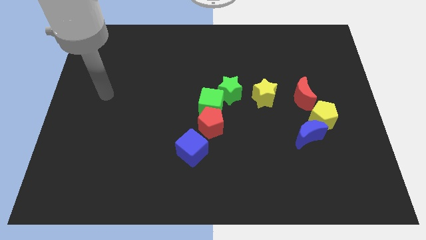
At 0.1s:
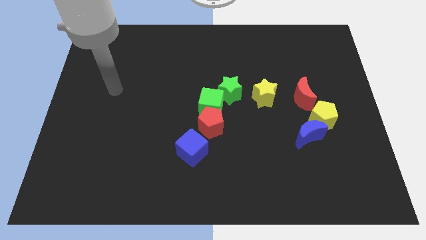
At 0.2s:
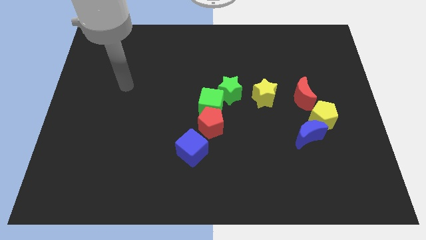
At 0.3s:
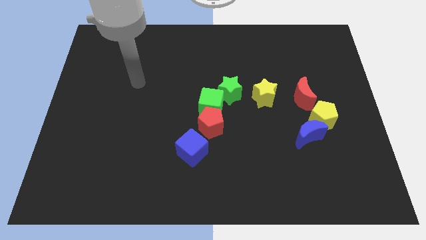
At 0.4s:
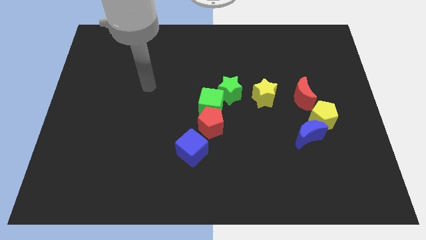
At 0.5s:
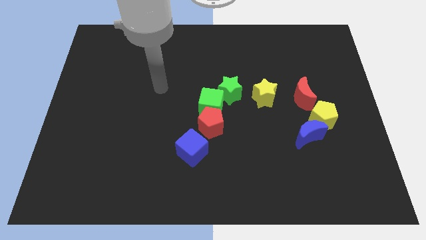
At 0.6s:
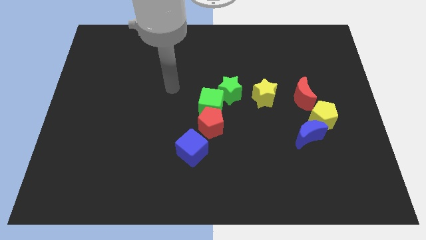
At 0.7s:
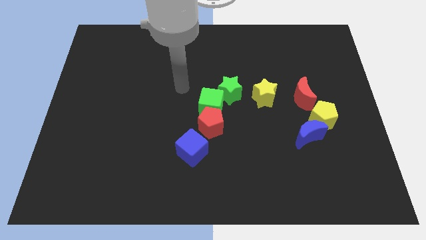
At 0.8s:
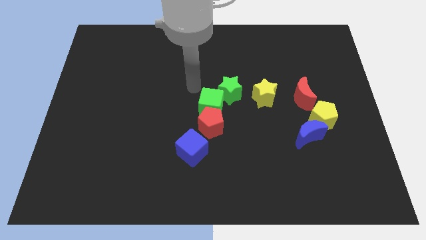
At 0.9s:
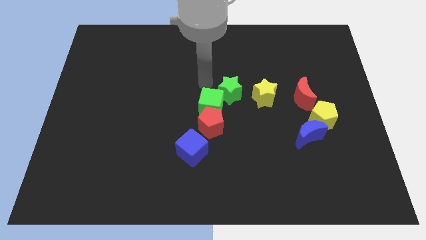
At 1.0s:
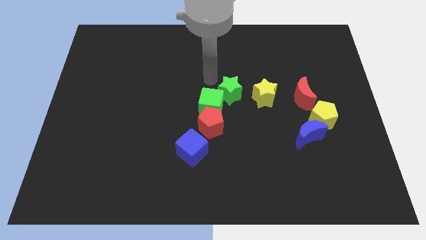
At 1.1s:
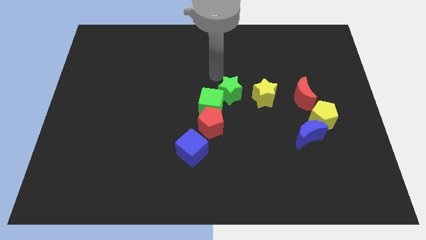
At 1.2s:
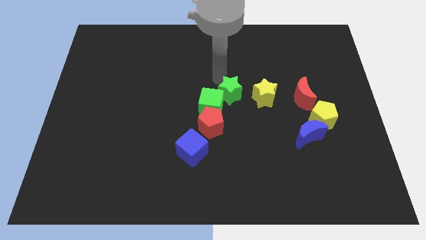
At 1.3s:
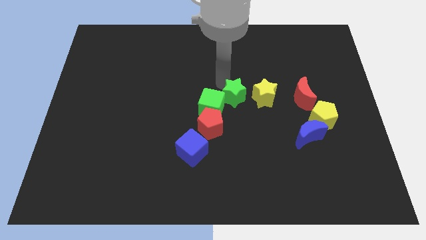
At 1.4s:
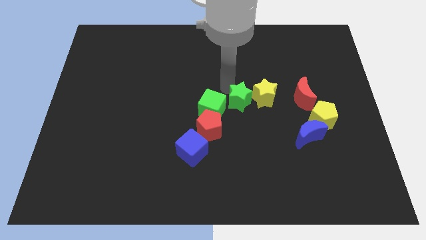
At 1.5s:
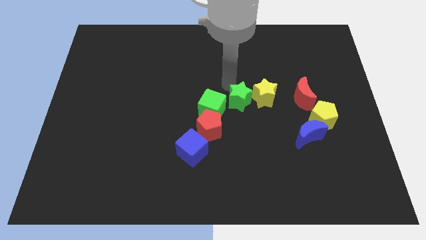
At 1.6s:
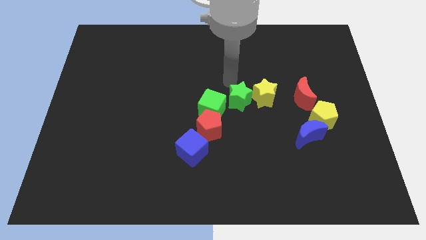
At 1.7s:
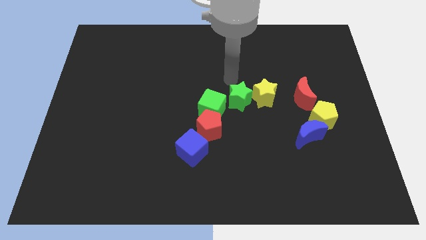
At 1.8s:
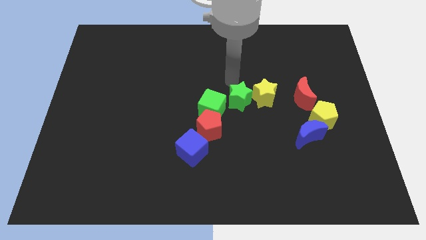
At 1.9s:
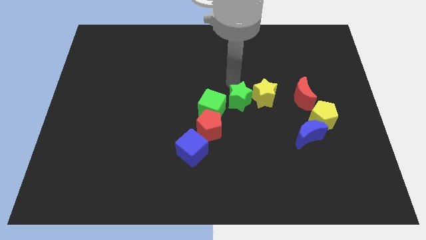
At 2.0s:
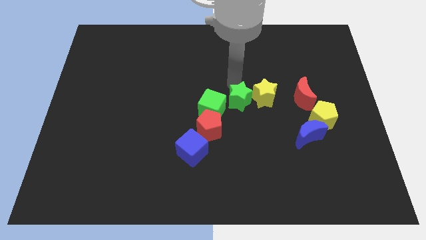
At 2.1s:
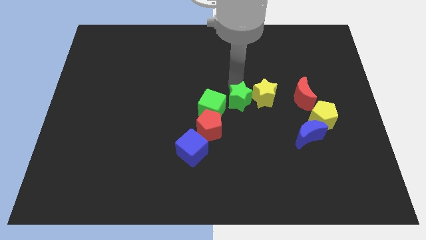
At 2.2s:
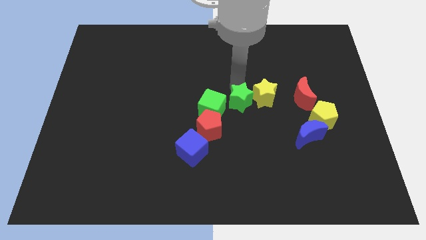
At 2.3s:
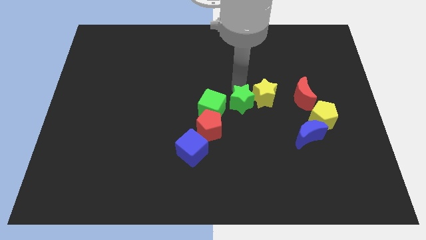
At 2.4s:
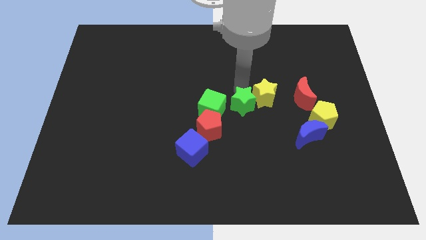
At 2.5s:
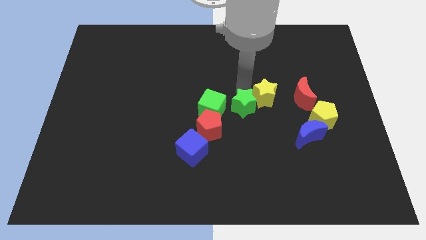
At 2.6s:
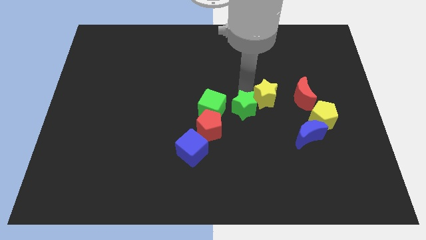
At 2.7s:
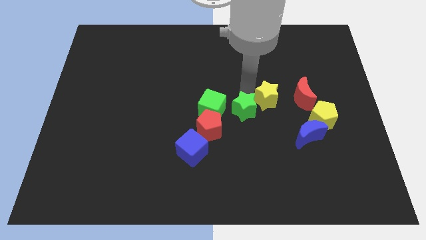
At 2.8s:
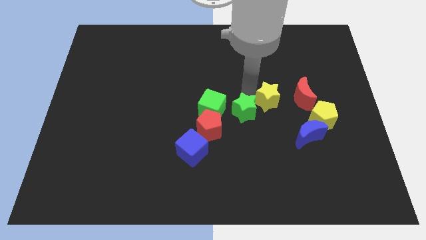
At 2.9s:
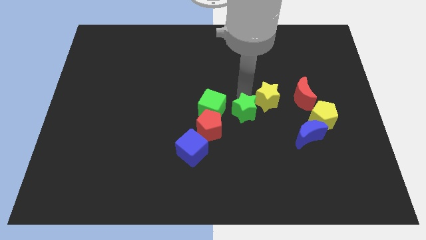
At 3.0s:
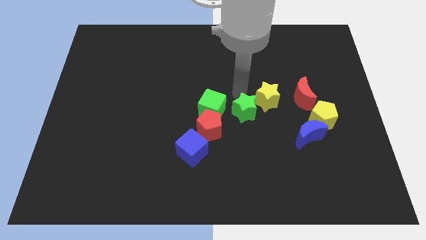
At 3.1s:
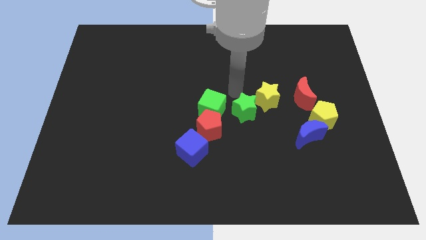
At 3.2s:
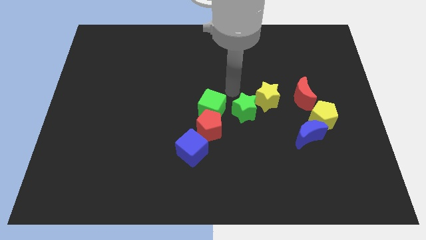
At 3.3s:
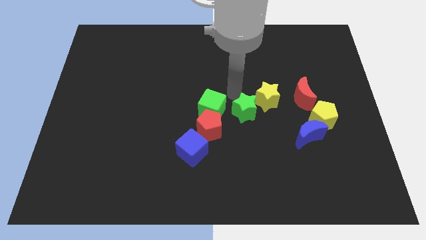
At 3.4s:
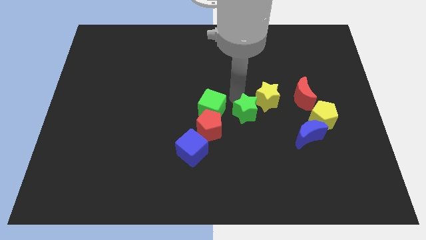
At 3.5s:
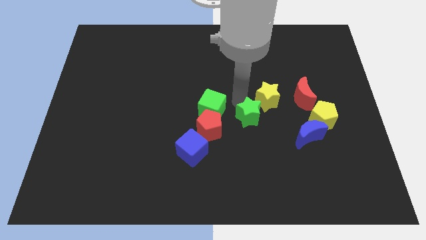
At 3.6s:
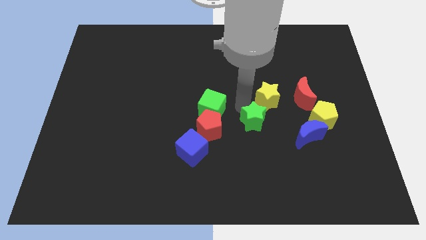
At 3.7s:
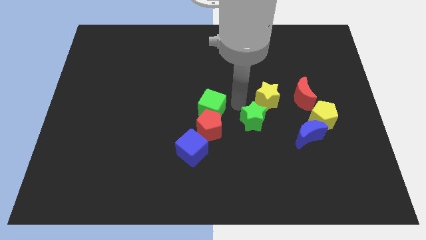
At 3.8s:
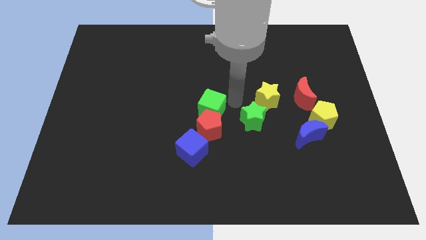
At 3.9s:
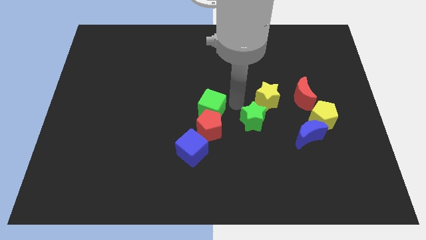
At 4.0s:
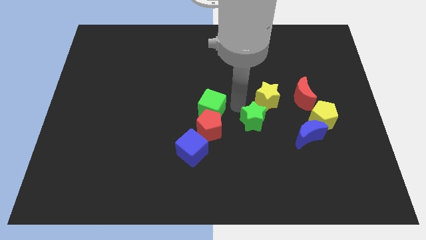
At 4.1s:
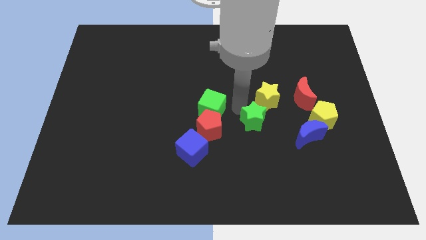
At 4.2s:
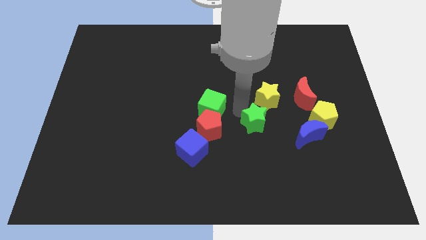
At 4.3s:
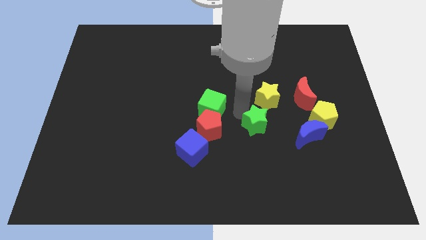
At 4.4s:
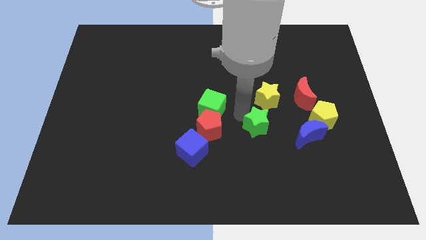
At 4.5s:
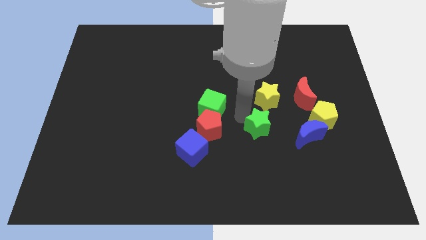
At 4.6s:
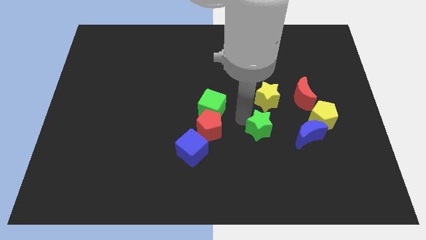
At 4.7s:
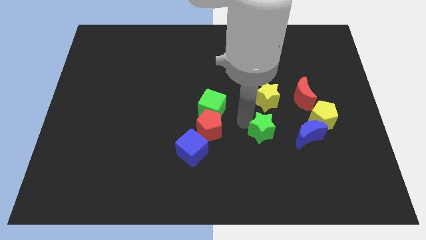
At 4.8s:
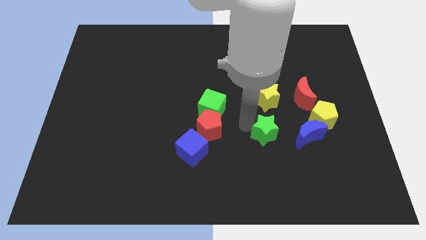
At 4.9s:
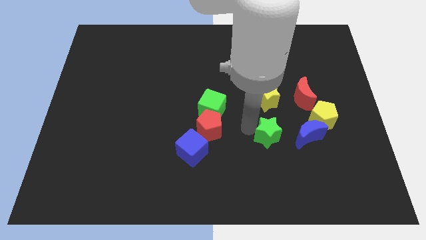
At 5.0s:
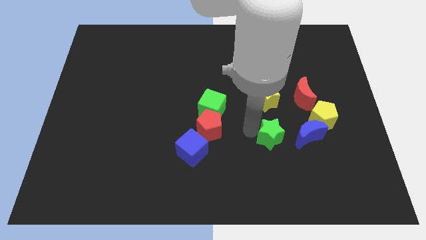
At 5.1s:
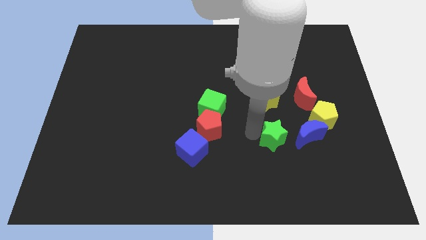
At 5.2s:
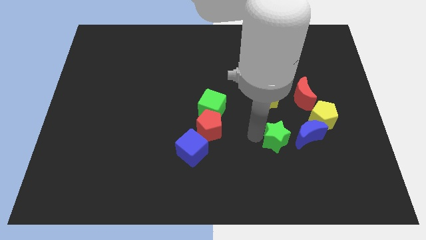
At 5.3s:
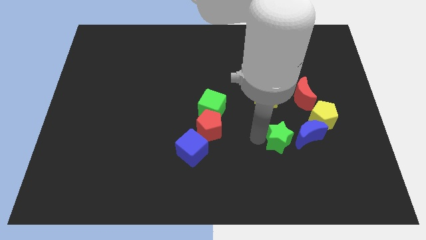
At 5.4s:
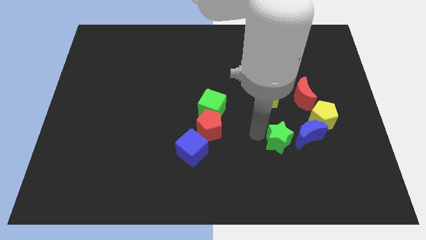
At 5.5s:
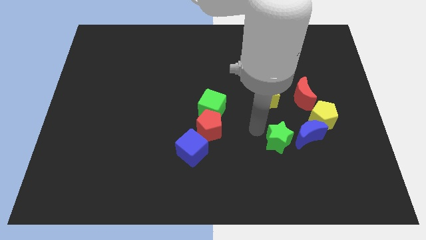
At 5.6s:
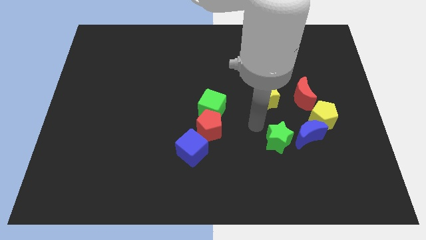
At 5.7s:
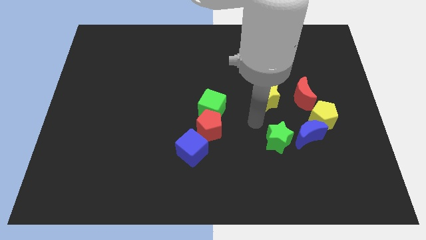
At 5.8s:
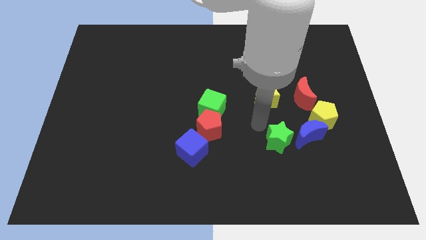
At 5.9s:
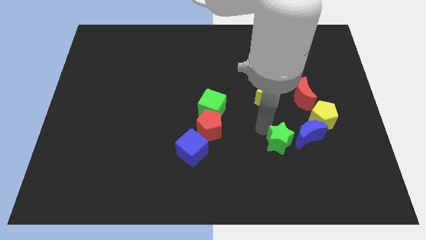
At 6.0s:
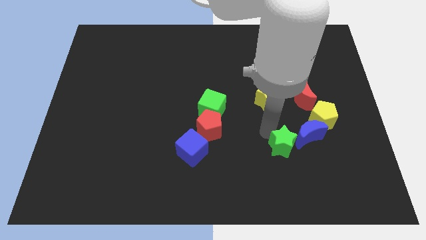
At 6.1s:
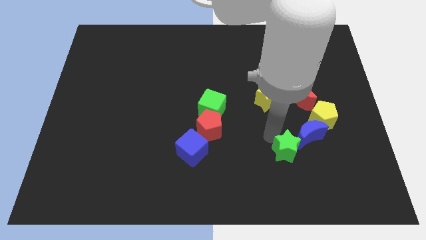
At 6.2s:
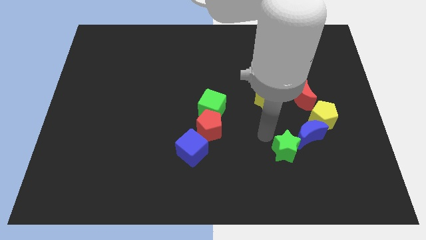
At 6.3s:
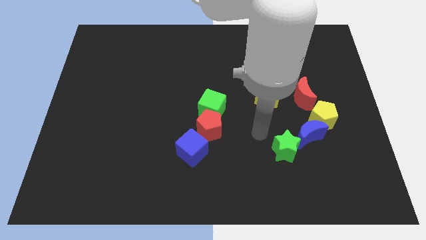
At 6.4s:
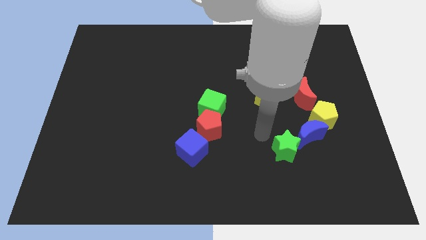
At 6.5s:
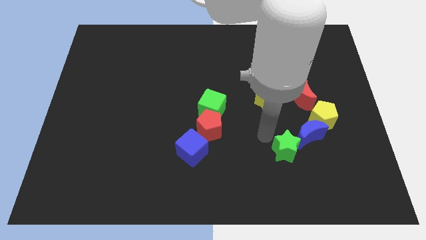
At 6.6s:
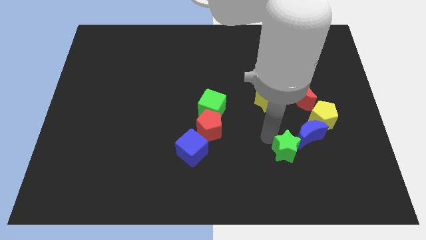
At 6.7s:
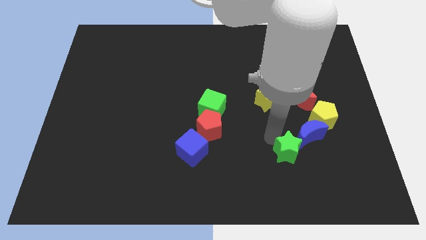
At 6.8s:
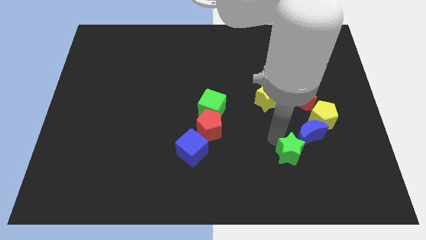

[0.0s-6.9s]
move the green star down and right

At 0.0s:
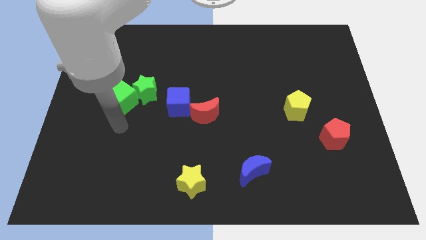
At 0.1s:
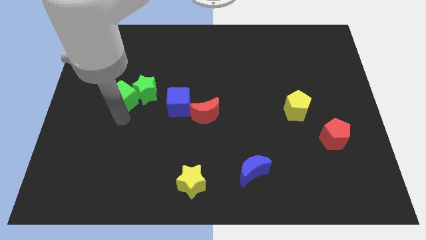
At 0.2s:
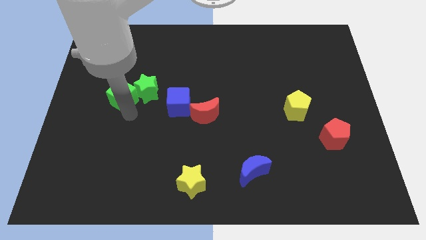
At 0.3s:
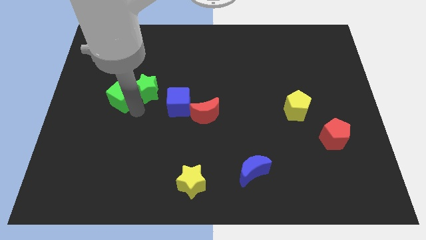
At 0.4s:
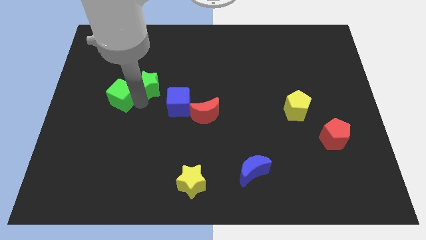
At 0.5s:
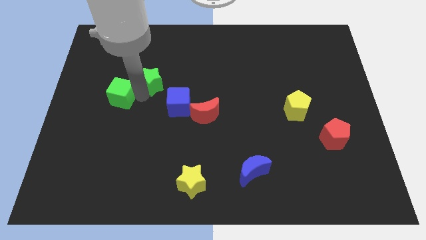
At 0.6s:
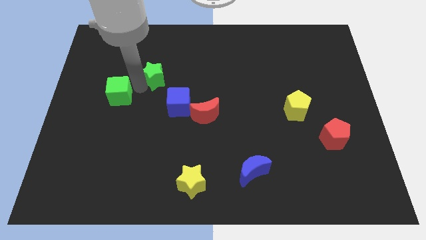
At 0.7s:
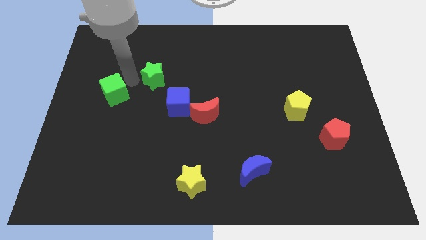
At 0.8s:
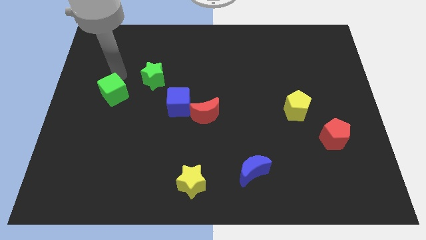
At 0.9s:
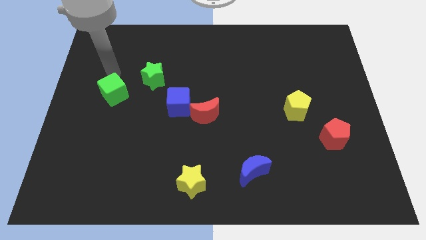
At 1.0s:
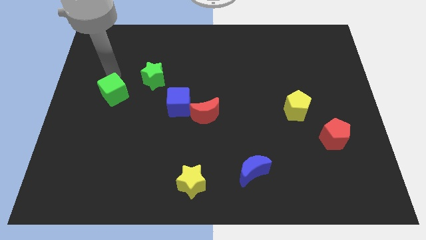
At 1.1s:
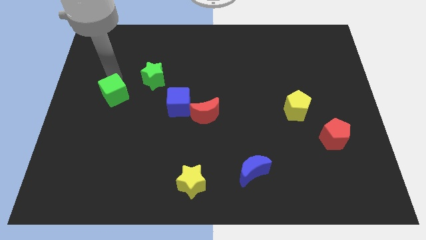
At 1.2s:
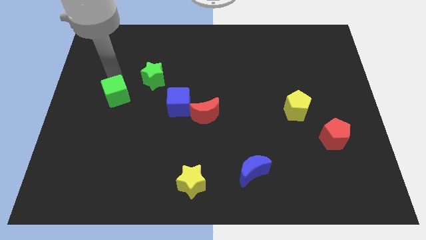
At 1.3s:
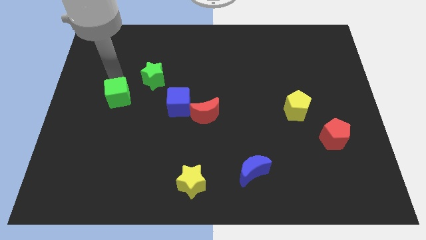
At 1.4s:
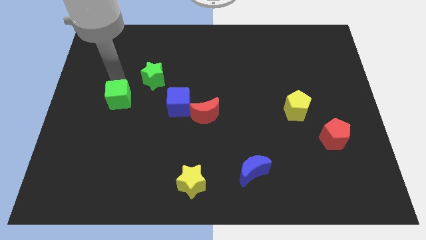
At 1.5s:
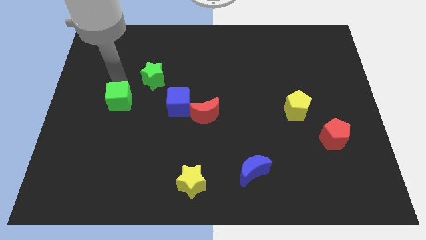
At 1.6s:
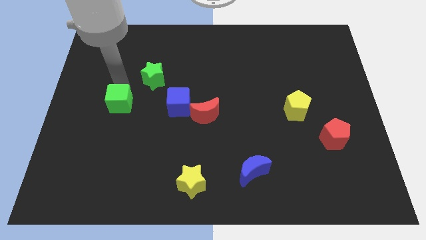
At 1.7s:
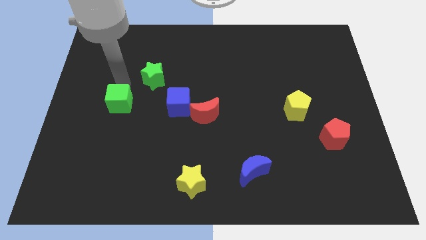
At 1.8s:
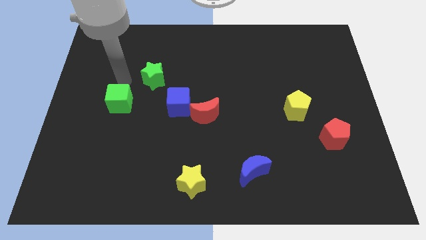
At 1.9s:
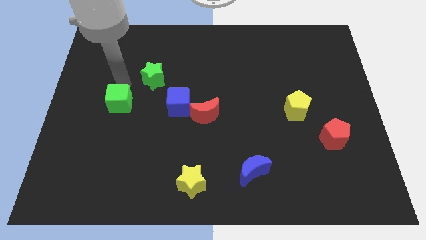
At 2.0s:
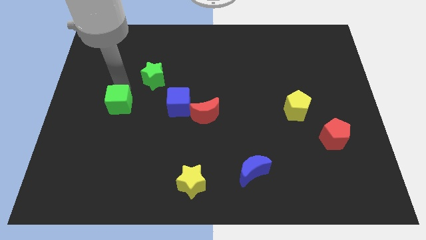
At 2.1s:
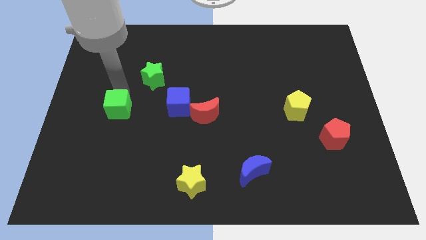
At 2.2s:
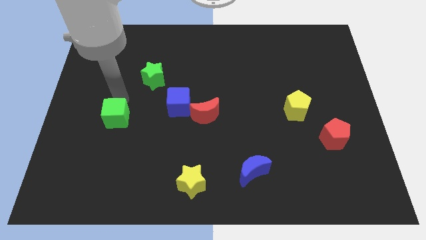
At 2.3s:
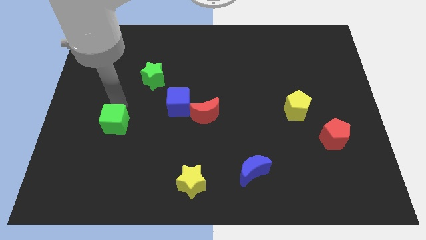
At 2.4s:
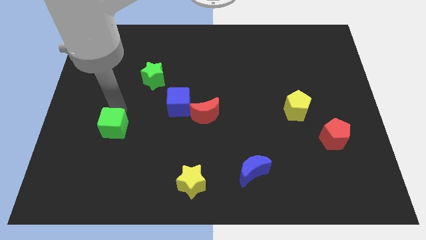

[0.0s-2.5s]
slide the green cube slightly down
